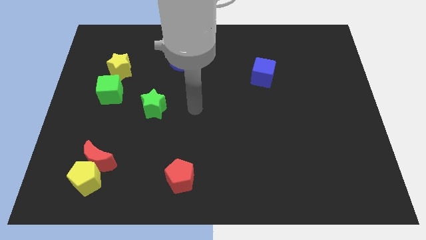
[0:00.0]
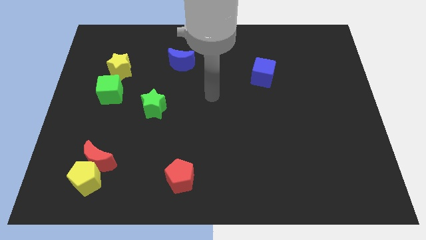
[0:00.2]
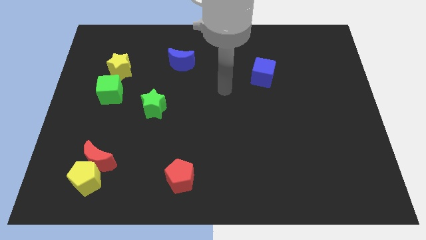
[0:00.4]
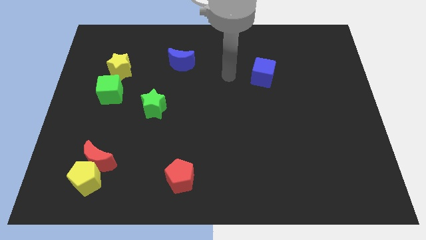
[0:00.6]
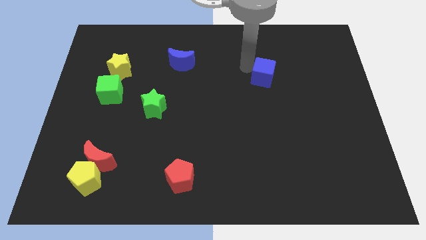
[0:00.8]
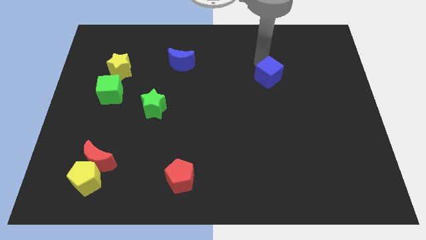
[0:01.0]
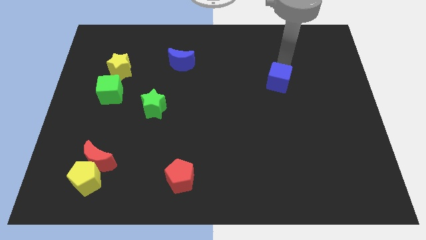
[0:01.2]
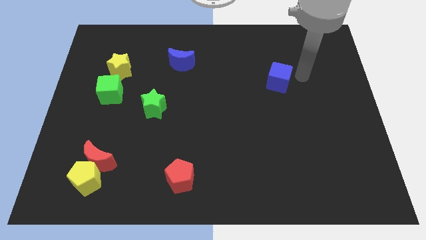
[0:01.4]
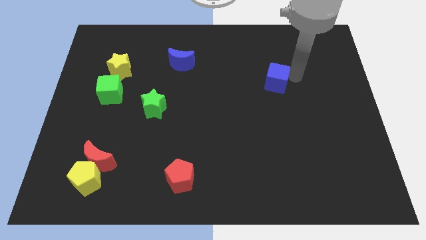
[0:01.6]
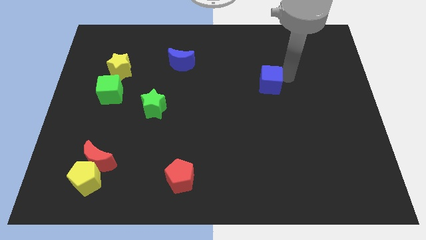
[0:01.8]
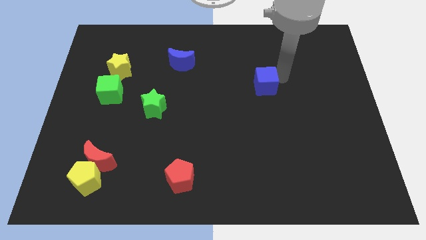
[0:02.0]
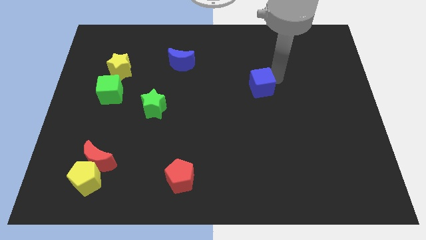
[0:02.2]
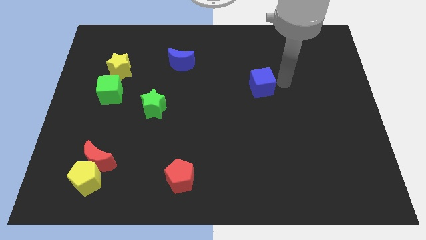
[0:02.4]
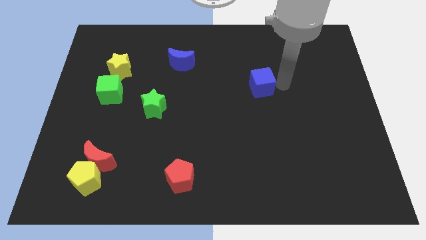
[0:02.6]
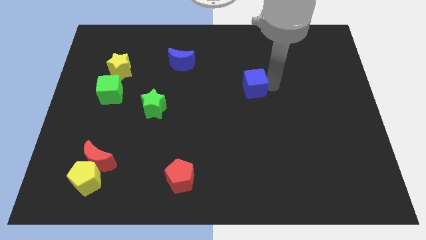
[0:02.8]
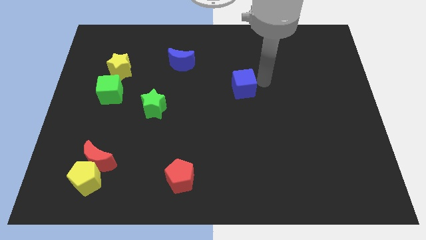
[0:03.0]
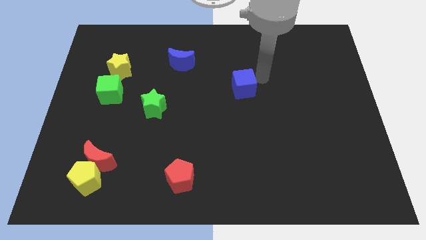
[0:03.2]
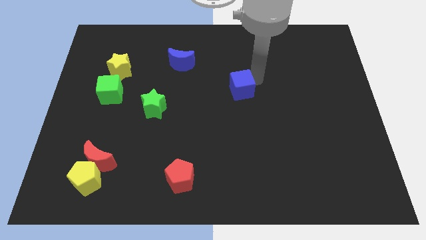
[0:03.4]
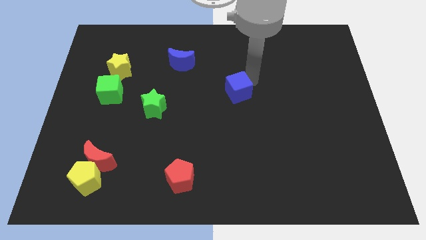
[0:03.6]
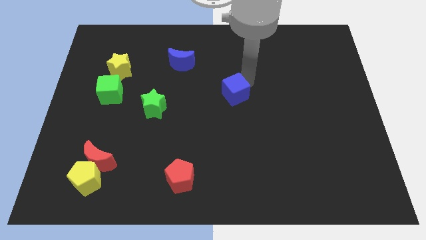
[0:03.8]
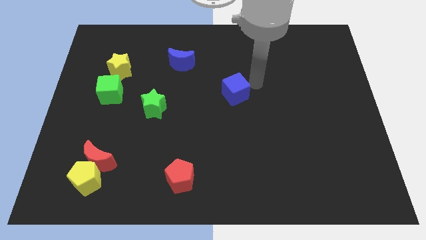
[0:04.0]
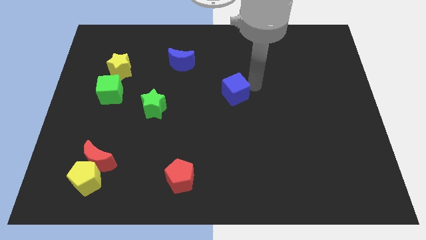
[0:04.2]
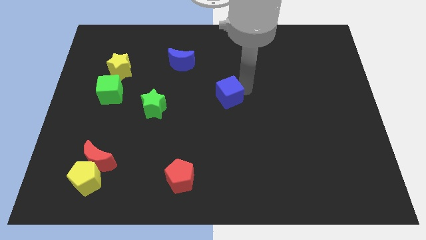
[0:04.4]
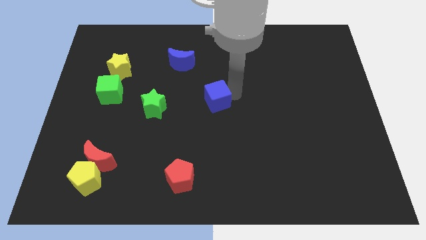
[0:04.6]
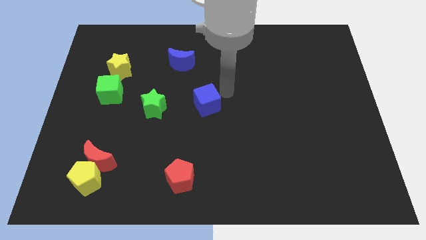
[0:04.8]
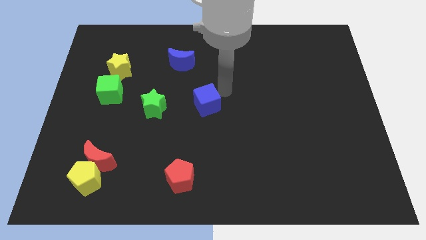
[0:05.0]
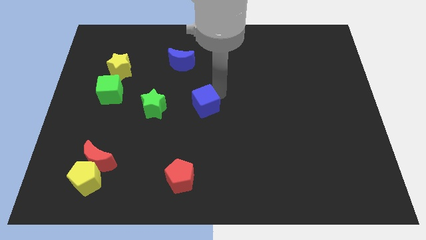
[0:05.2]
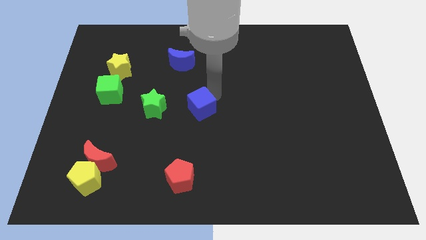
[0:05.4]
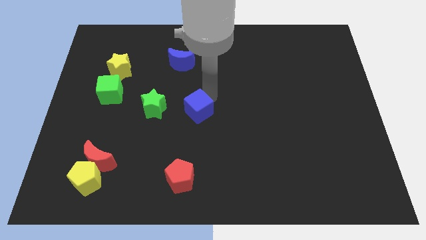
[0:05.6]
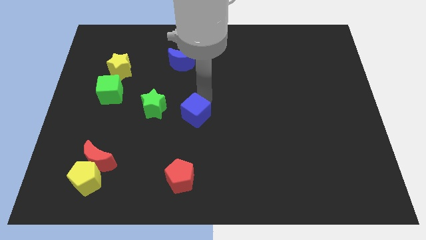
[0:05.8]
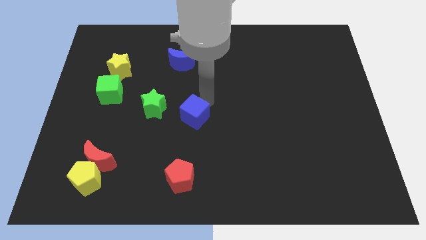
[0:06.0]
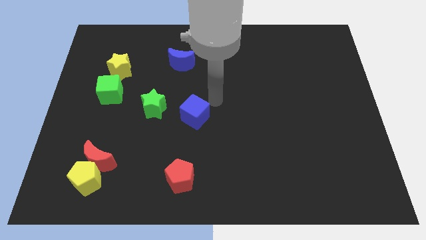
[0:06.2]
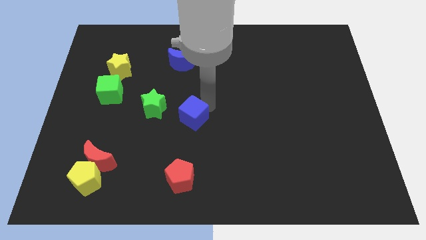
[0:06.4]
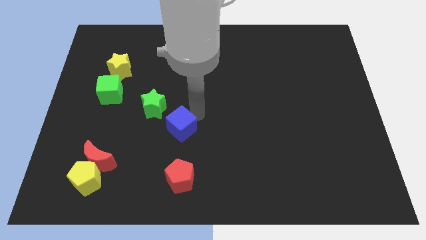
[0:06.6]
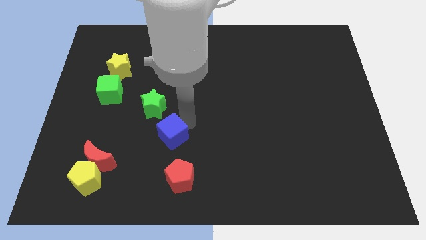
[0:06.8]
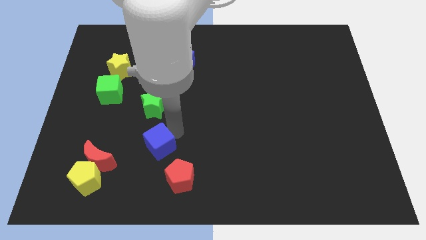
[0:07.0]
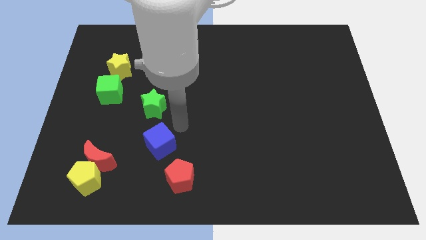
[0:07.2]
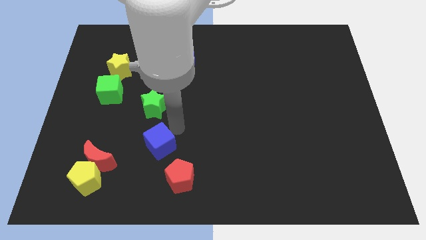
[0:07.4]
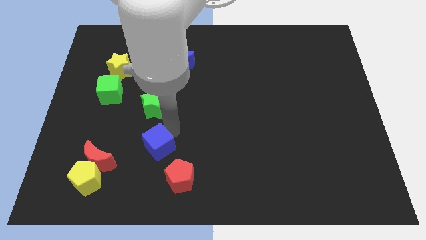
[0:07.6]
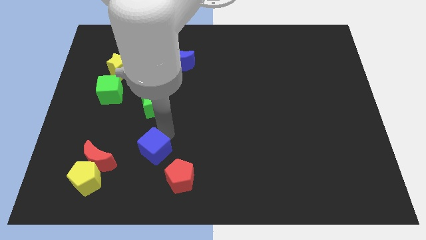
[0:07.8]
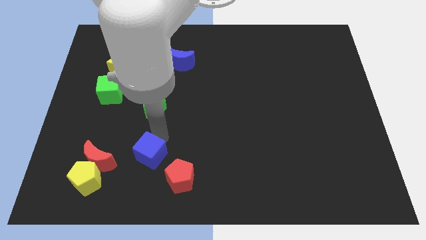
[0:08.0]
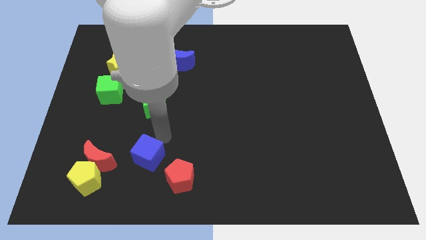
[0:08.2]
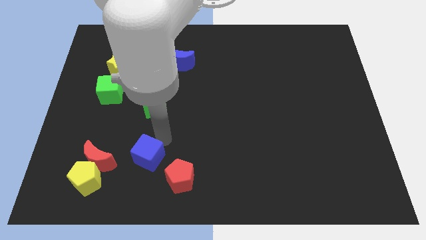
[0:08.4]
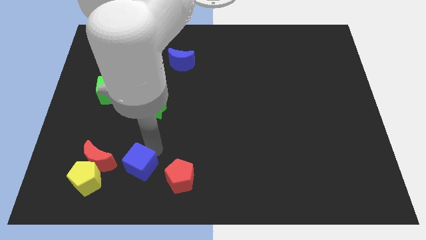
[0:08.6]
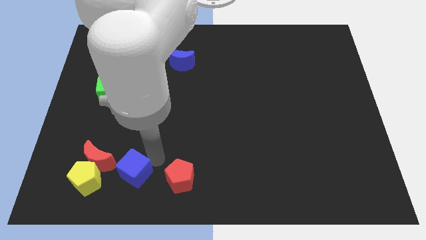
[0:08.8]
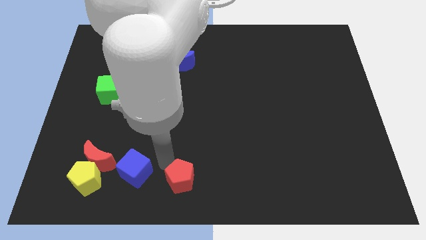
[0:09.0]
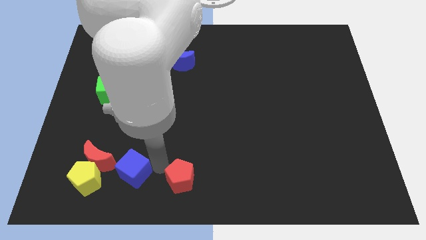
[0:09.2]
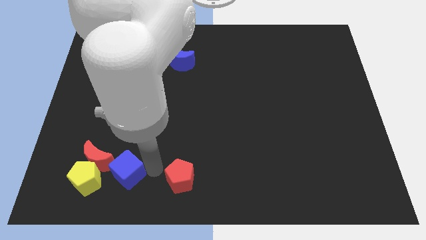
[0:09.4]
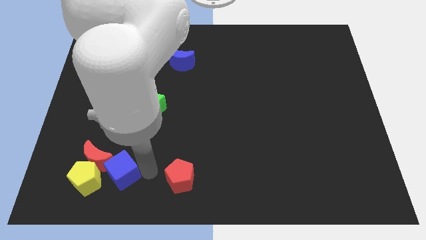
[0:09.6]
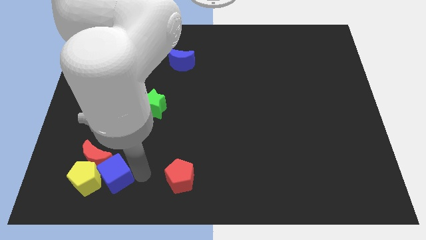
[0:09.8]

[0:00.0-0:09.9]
move the blue cube towards the yellow pentagon

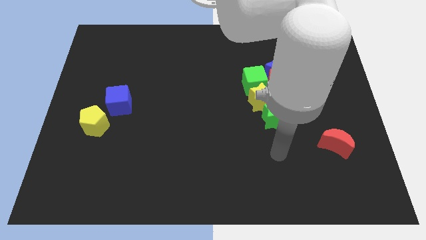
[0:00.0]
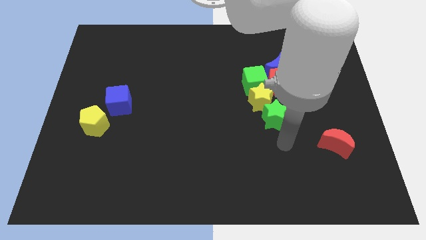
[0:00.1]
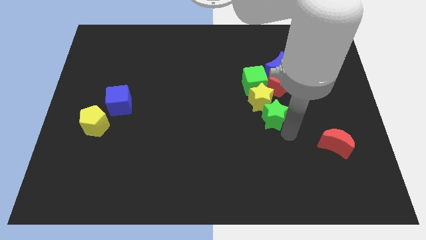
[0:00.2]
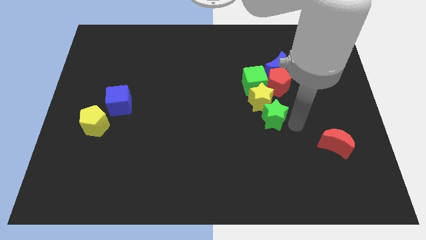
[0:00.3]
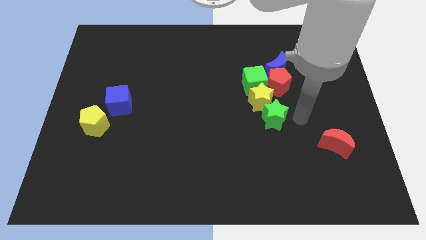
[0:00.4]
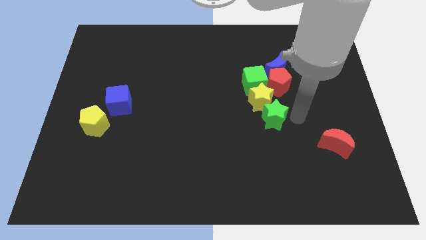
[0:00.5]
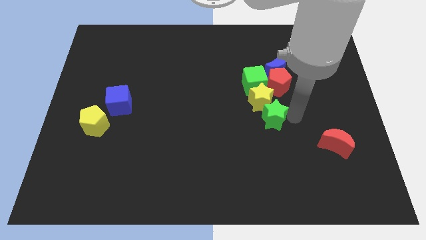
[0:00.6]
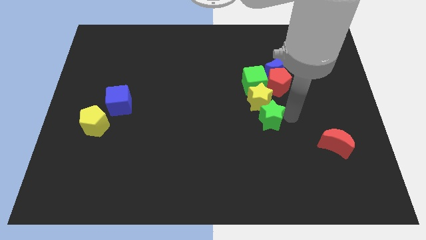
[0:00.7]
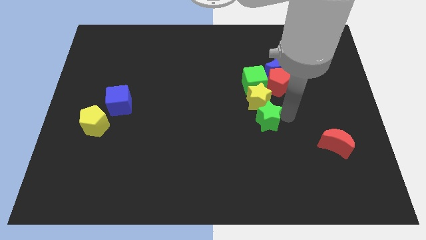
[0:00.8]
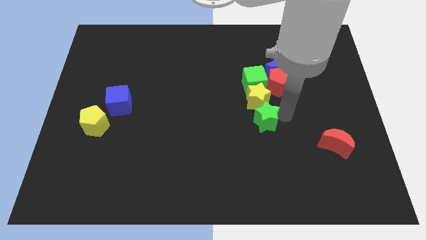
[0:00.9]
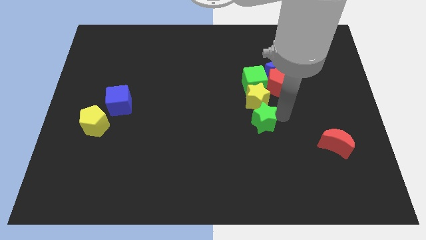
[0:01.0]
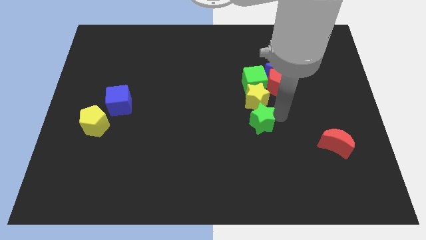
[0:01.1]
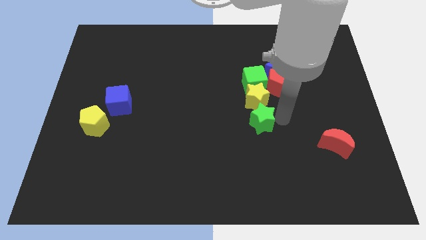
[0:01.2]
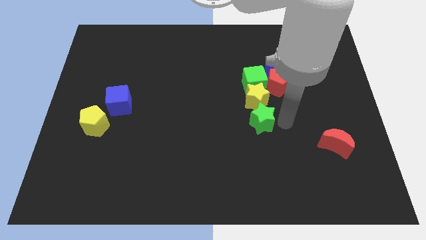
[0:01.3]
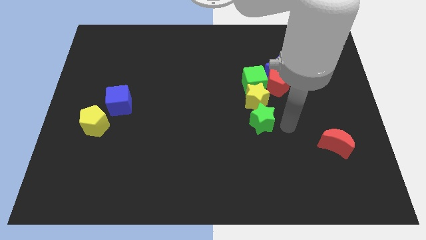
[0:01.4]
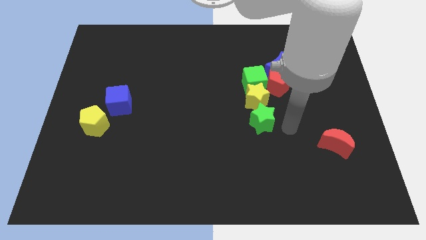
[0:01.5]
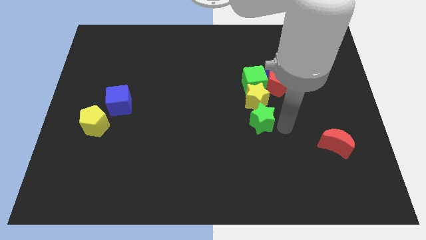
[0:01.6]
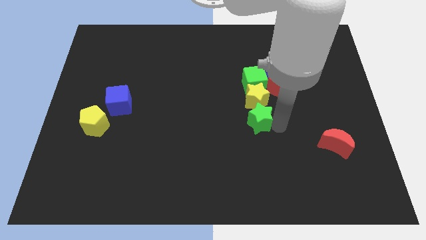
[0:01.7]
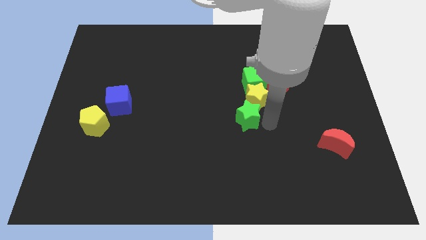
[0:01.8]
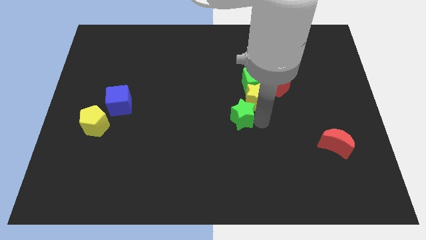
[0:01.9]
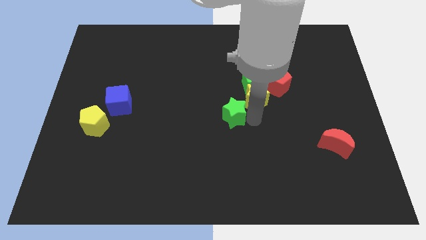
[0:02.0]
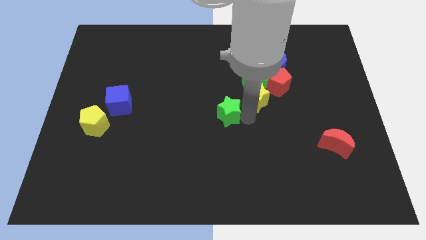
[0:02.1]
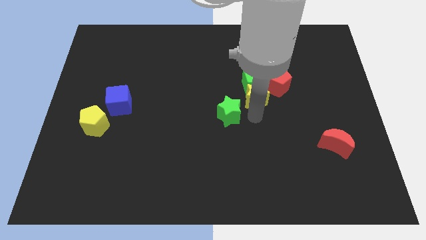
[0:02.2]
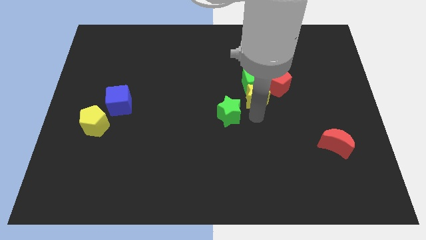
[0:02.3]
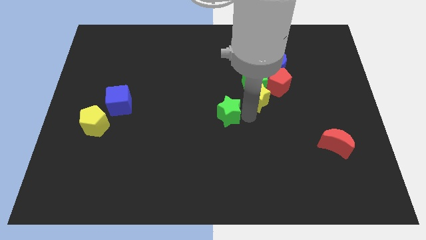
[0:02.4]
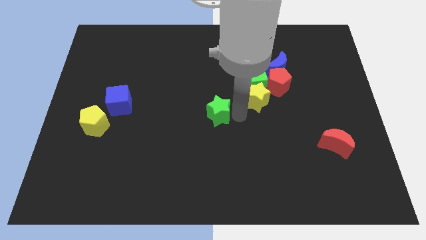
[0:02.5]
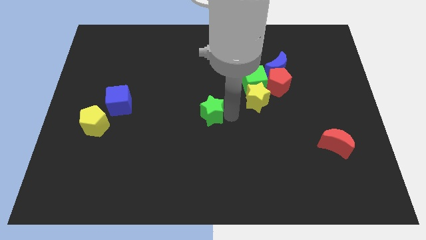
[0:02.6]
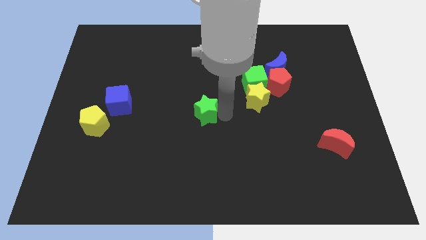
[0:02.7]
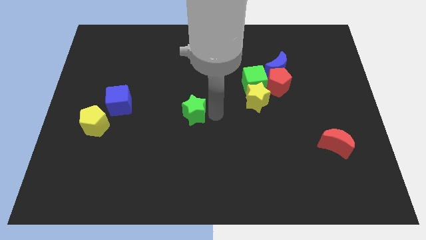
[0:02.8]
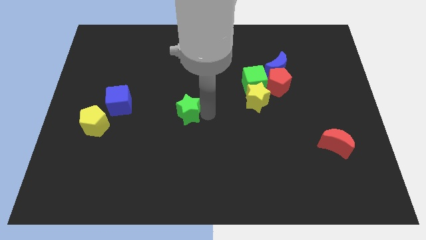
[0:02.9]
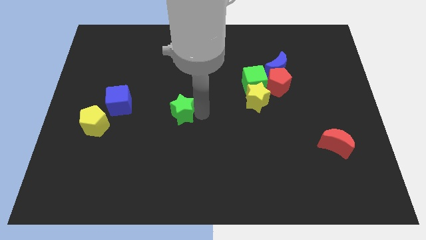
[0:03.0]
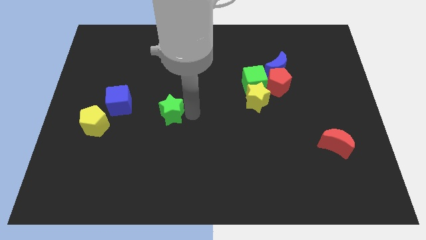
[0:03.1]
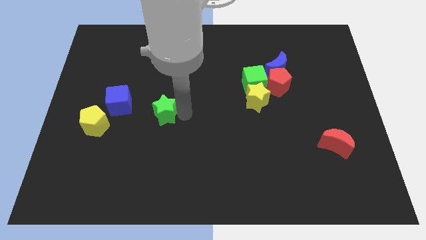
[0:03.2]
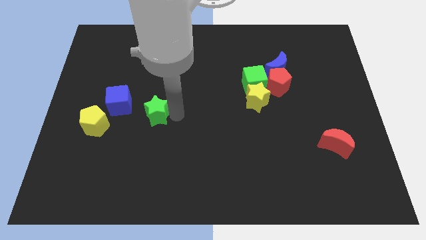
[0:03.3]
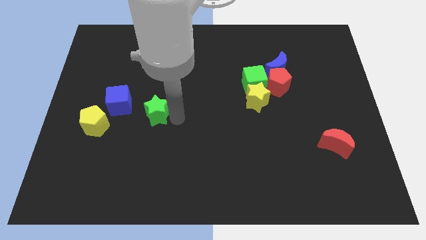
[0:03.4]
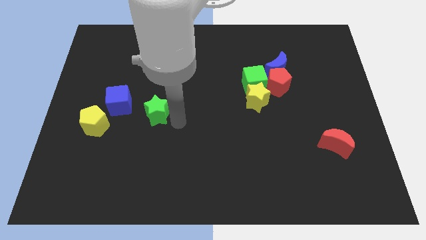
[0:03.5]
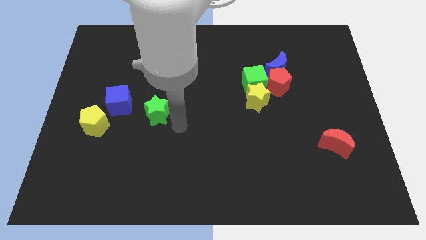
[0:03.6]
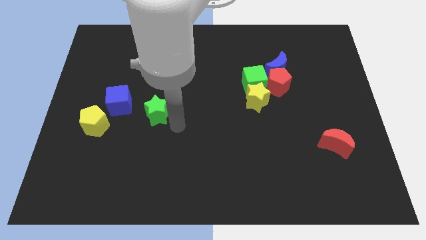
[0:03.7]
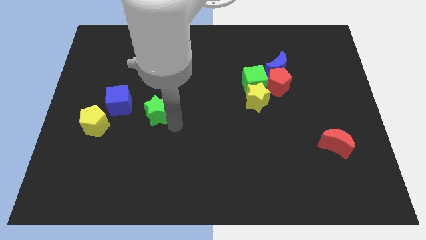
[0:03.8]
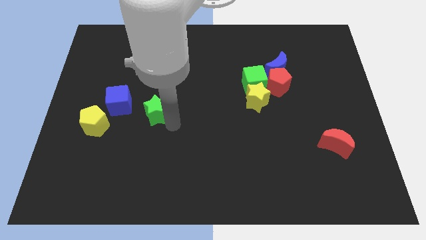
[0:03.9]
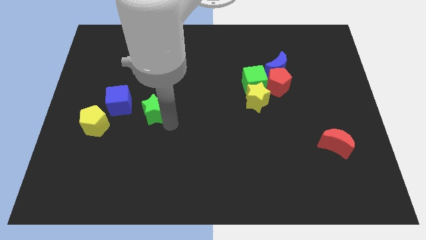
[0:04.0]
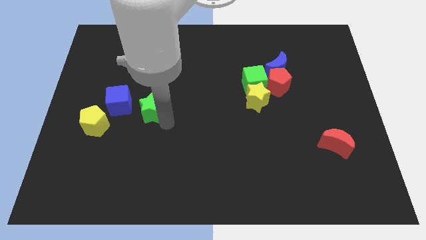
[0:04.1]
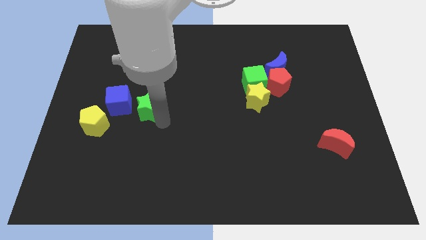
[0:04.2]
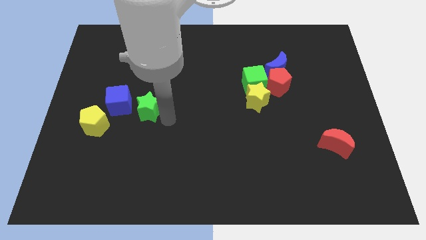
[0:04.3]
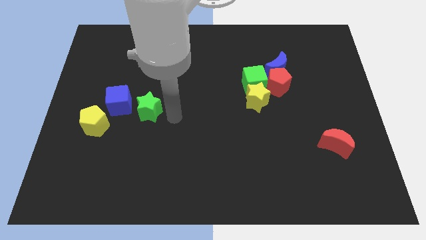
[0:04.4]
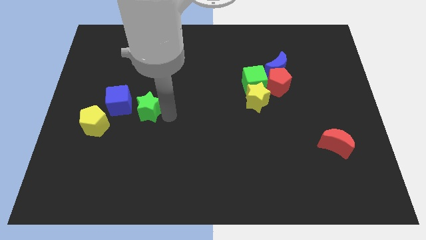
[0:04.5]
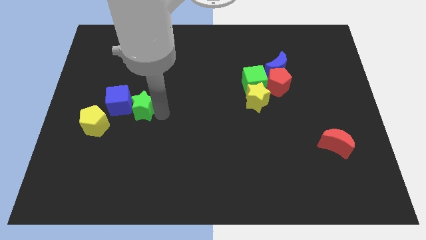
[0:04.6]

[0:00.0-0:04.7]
slide the green star close to the blue cube
